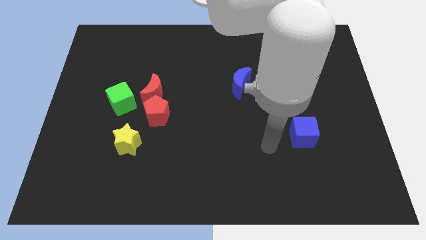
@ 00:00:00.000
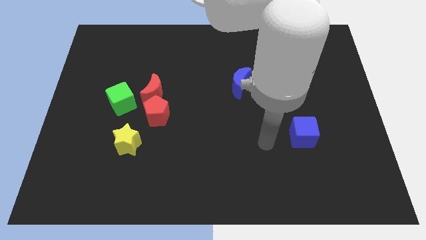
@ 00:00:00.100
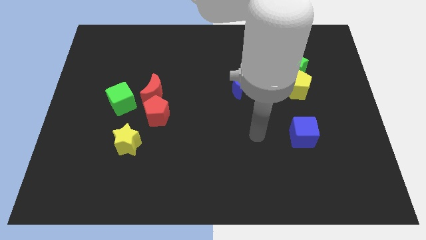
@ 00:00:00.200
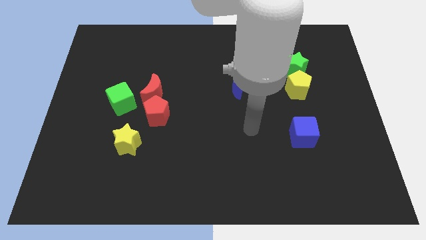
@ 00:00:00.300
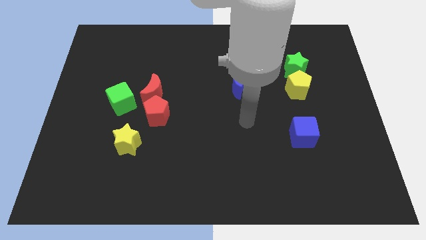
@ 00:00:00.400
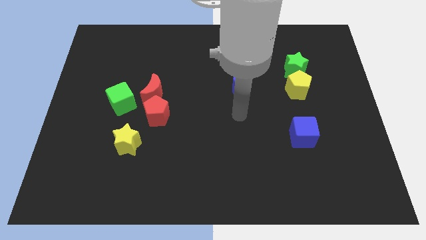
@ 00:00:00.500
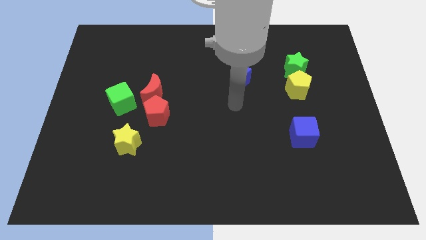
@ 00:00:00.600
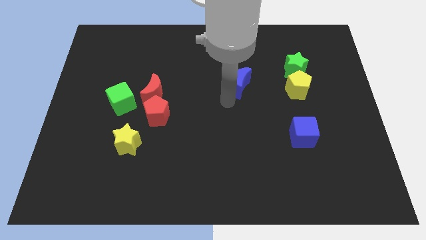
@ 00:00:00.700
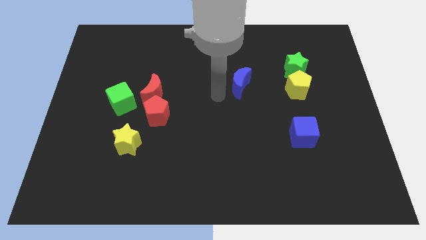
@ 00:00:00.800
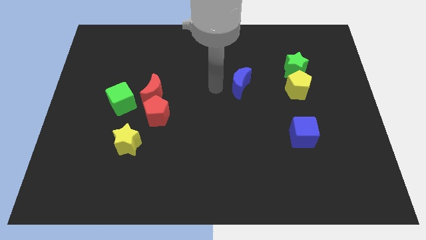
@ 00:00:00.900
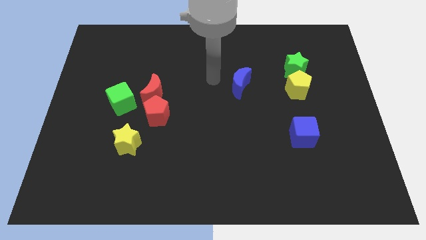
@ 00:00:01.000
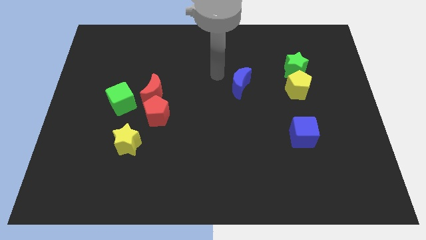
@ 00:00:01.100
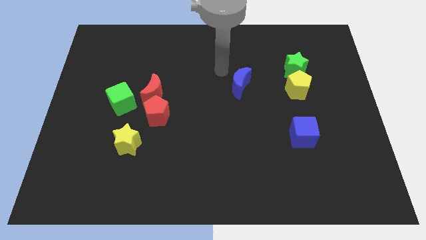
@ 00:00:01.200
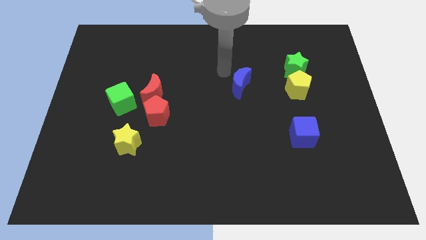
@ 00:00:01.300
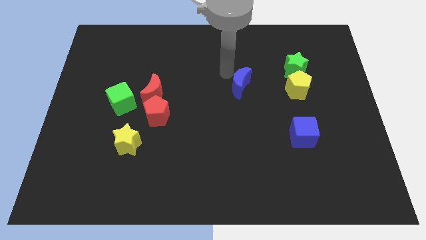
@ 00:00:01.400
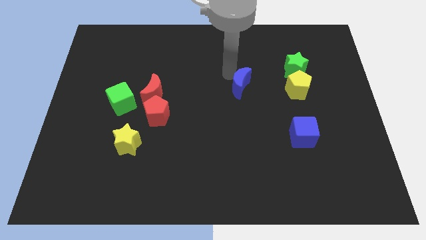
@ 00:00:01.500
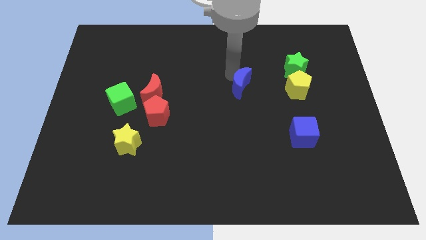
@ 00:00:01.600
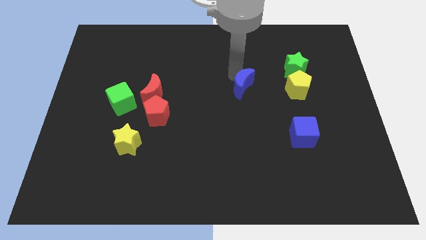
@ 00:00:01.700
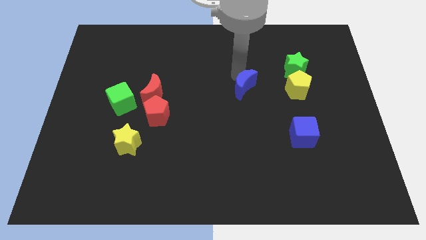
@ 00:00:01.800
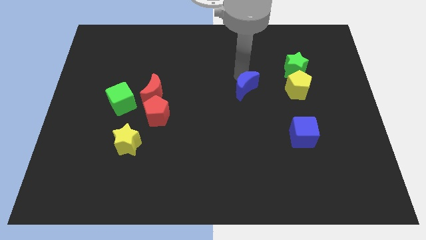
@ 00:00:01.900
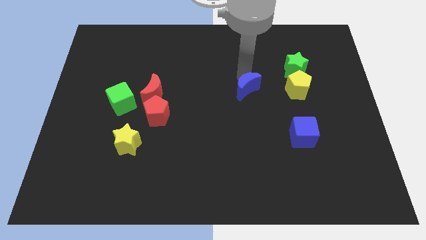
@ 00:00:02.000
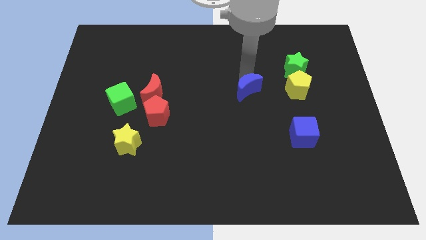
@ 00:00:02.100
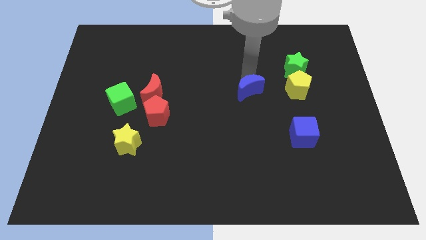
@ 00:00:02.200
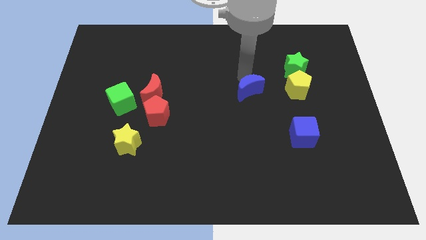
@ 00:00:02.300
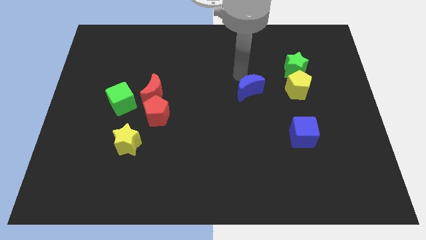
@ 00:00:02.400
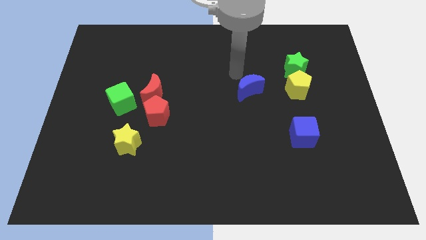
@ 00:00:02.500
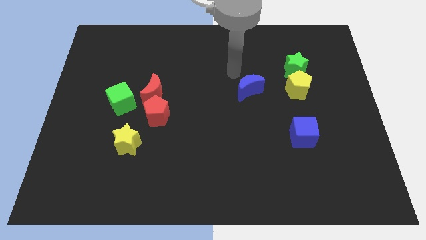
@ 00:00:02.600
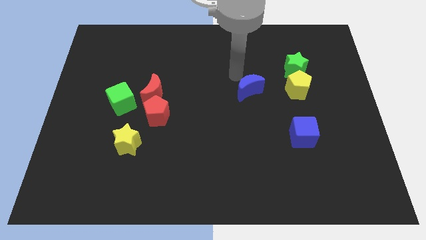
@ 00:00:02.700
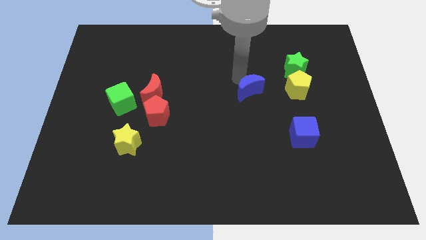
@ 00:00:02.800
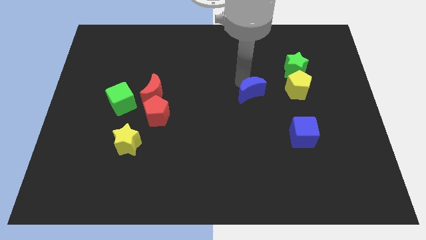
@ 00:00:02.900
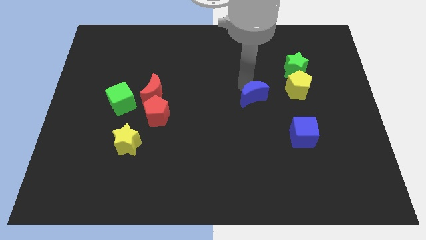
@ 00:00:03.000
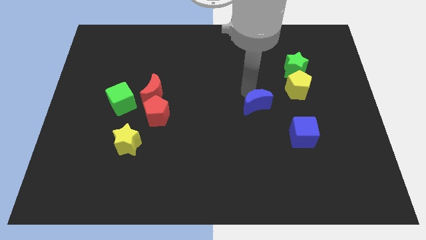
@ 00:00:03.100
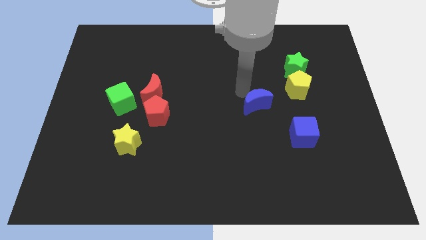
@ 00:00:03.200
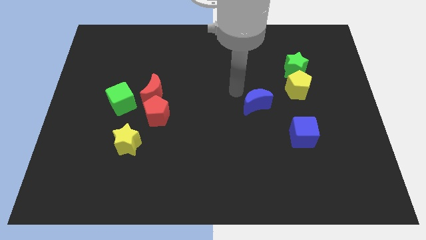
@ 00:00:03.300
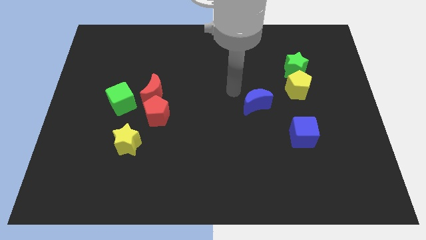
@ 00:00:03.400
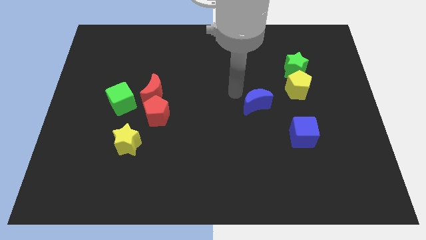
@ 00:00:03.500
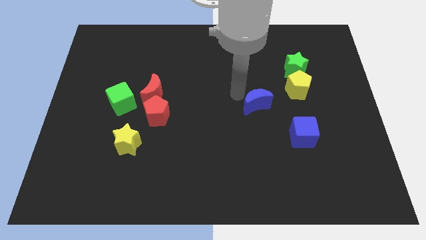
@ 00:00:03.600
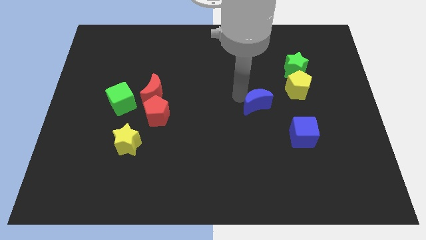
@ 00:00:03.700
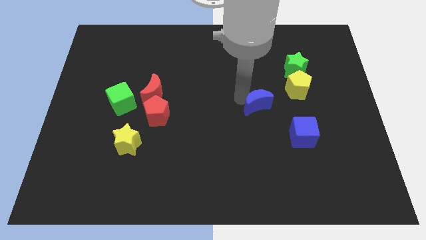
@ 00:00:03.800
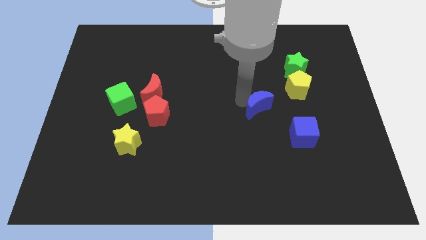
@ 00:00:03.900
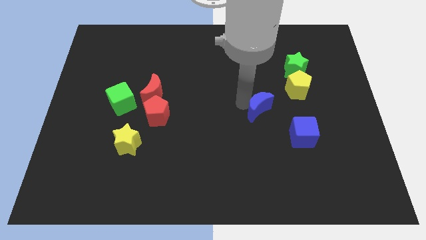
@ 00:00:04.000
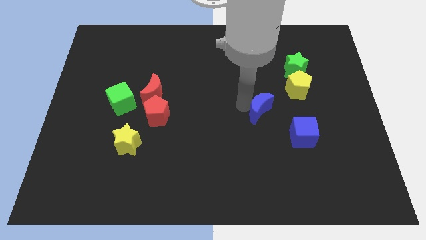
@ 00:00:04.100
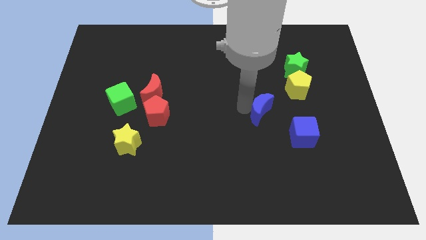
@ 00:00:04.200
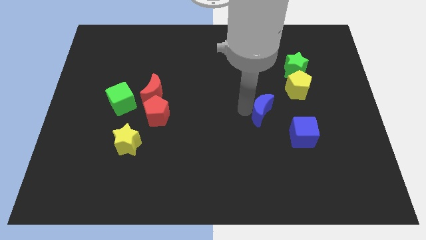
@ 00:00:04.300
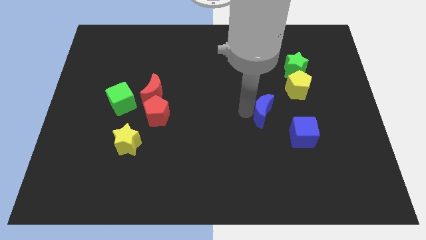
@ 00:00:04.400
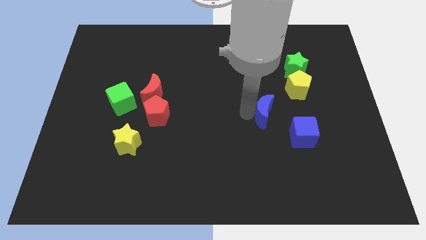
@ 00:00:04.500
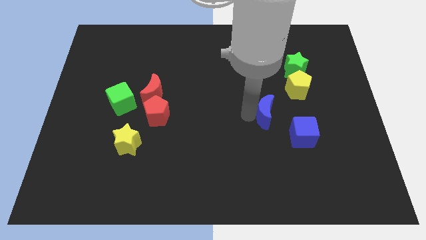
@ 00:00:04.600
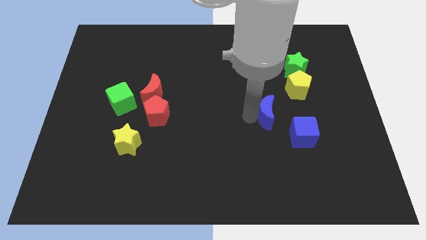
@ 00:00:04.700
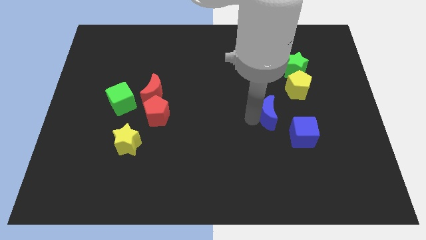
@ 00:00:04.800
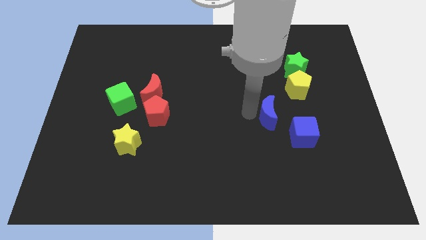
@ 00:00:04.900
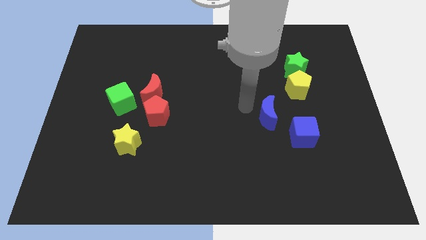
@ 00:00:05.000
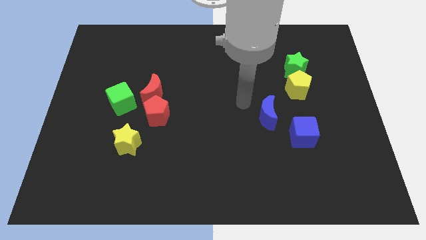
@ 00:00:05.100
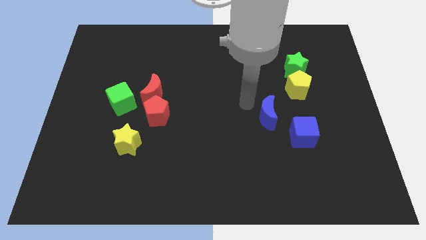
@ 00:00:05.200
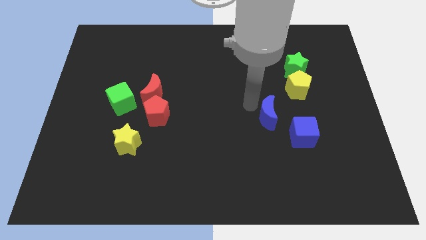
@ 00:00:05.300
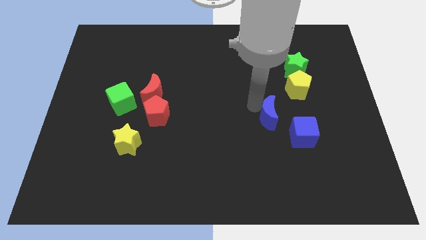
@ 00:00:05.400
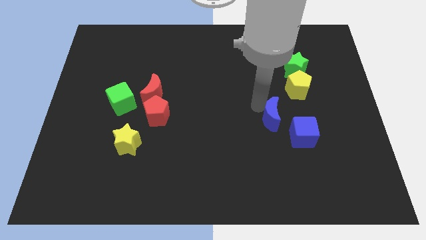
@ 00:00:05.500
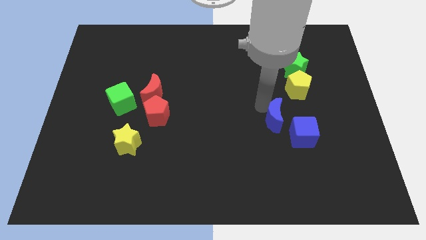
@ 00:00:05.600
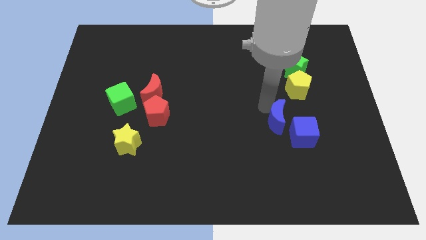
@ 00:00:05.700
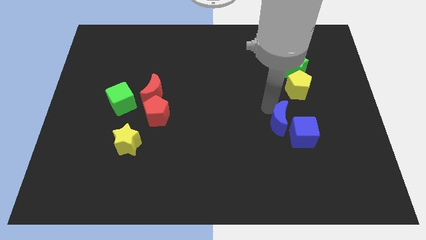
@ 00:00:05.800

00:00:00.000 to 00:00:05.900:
put the blue moon next to the blue cube

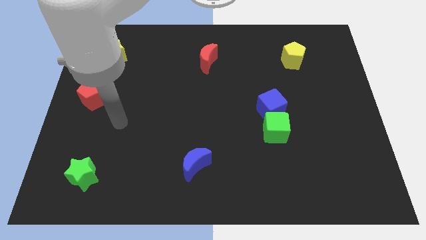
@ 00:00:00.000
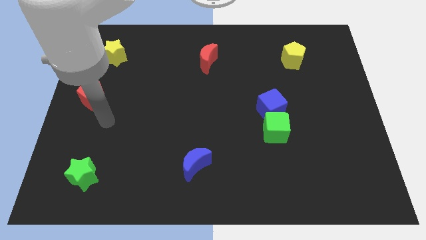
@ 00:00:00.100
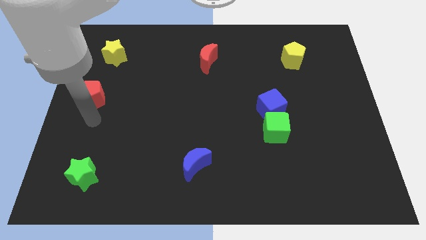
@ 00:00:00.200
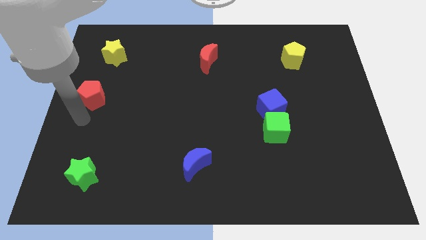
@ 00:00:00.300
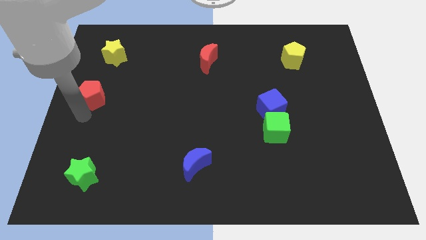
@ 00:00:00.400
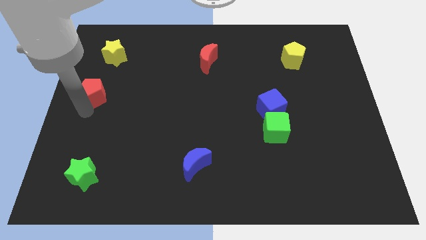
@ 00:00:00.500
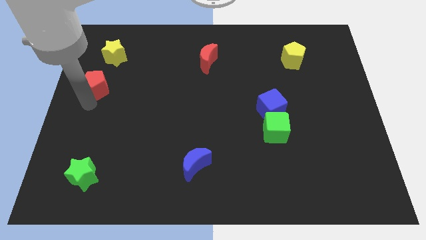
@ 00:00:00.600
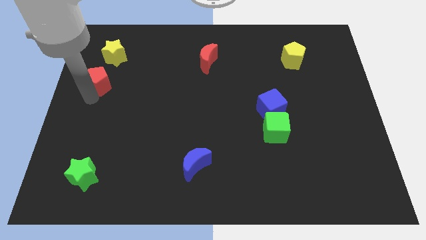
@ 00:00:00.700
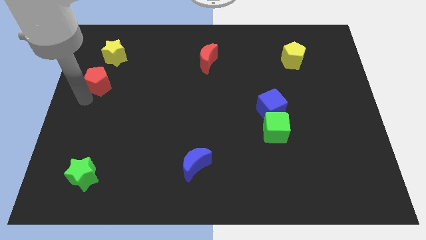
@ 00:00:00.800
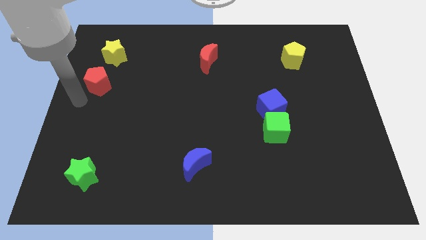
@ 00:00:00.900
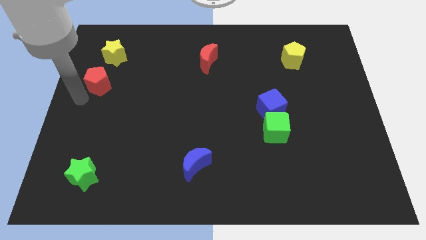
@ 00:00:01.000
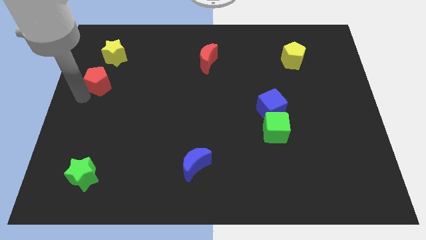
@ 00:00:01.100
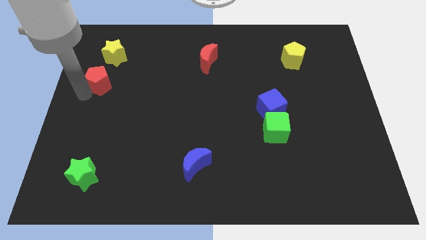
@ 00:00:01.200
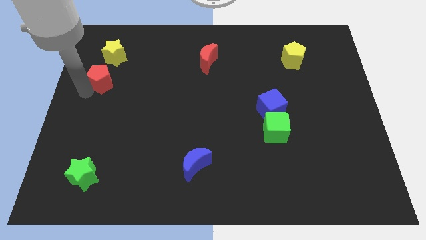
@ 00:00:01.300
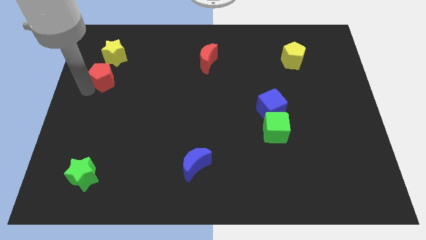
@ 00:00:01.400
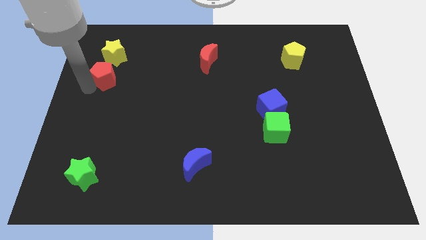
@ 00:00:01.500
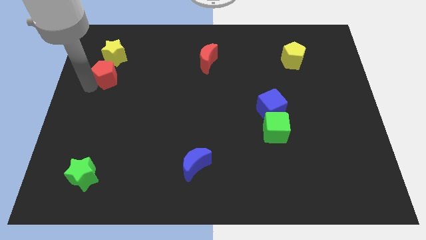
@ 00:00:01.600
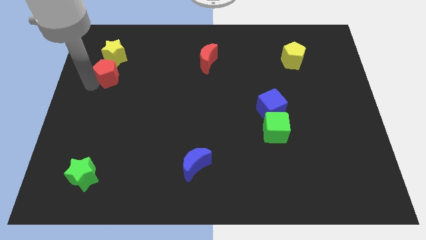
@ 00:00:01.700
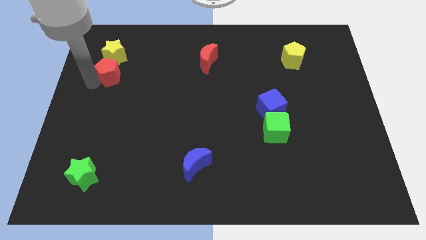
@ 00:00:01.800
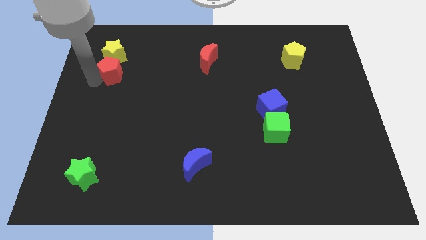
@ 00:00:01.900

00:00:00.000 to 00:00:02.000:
slide the red pentagon close to the yellow star
